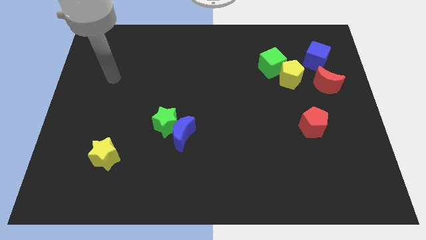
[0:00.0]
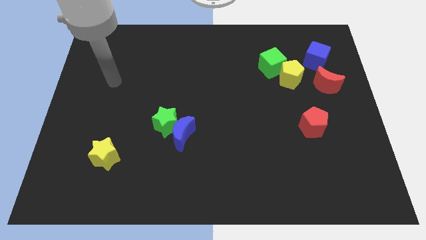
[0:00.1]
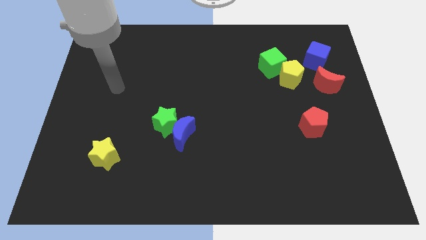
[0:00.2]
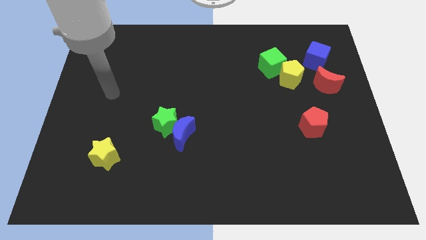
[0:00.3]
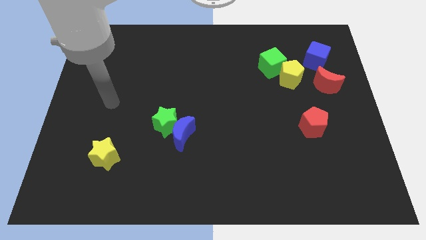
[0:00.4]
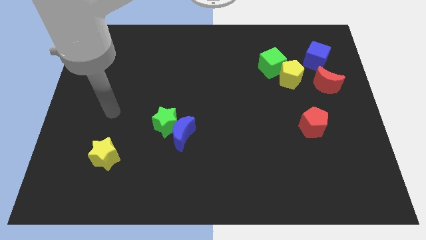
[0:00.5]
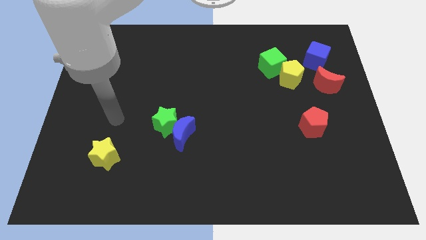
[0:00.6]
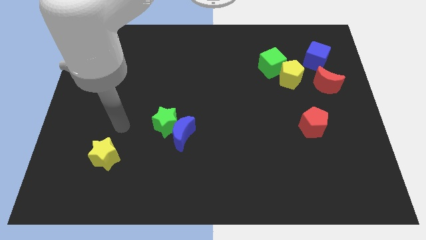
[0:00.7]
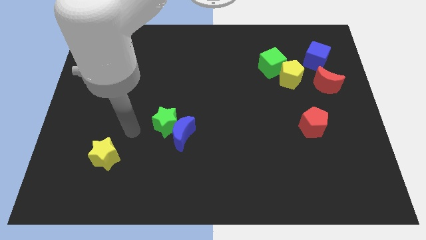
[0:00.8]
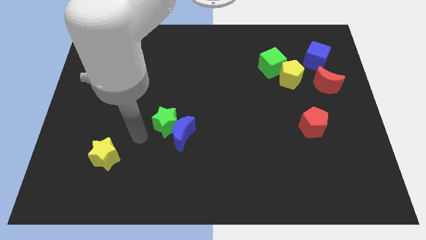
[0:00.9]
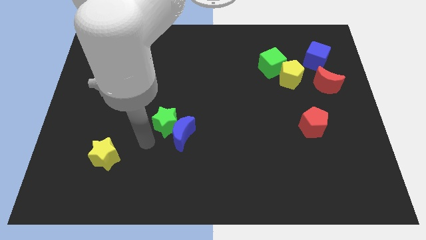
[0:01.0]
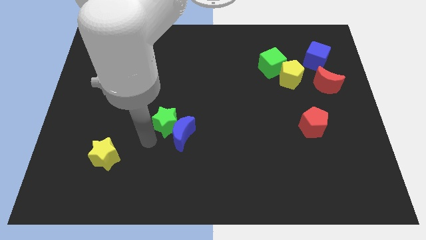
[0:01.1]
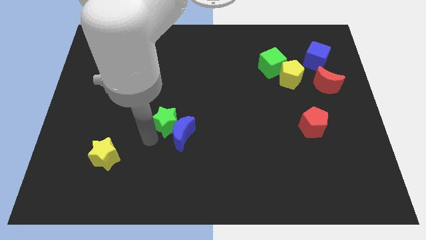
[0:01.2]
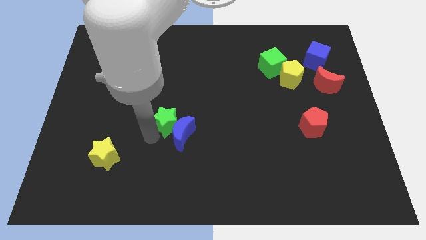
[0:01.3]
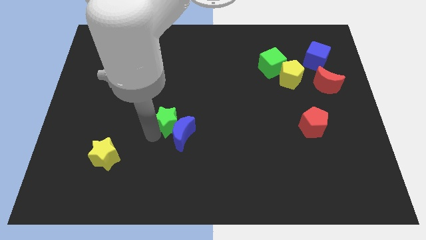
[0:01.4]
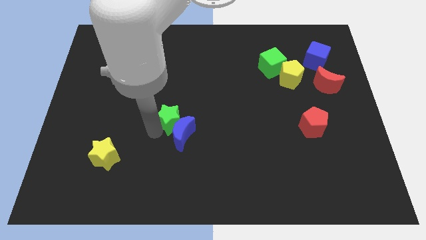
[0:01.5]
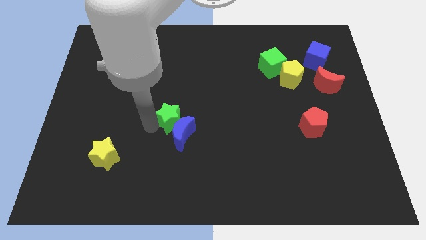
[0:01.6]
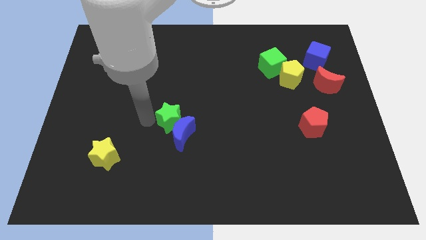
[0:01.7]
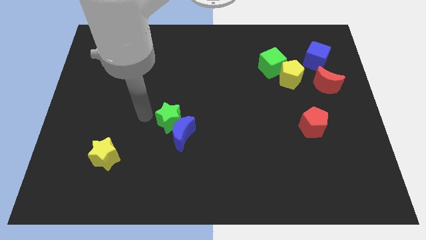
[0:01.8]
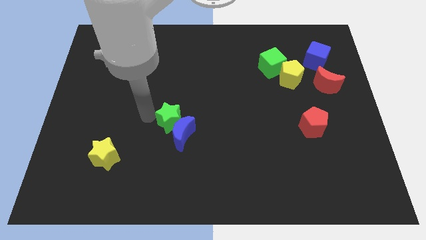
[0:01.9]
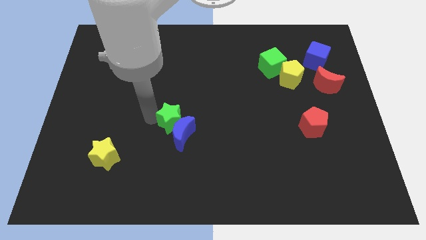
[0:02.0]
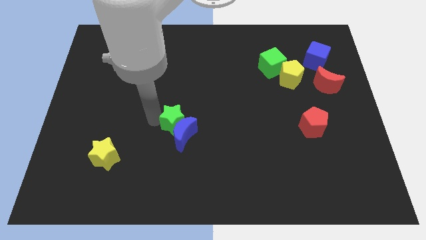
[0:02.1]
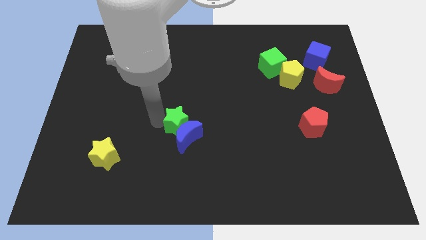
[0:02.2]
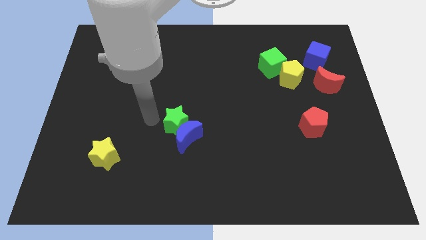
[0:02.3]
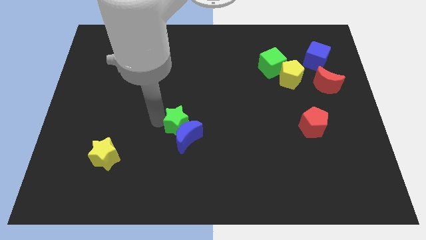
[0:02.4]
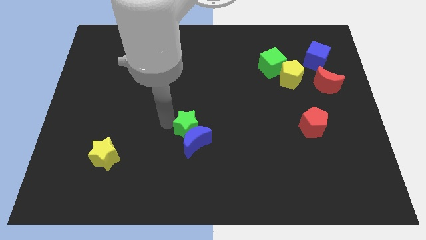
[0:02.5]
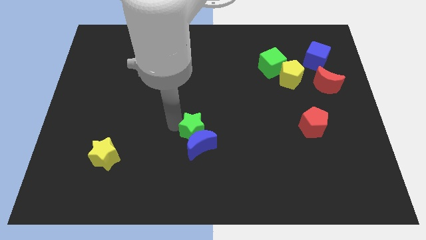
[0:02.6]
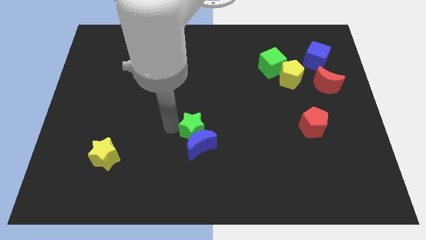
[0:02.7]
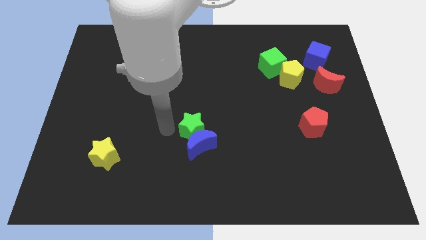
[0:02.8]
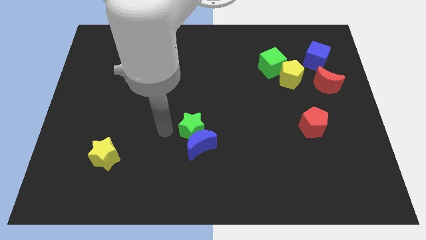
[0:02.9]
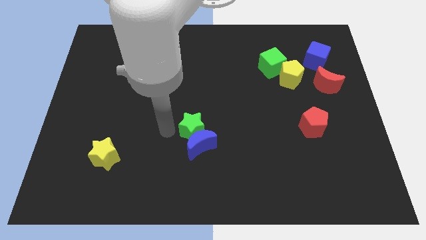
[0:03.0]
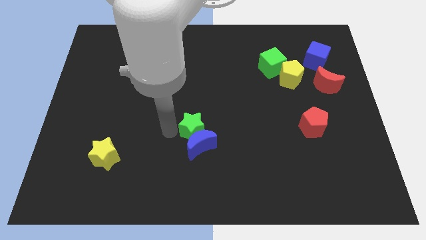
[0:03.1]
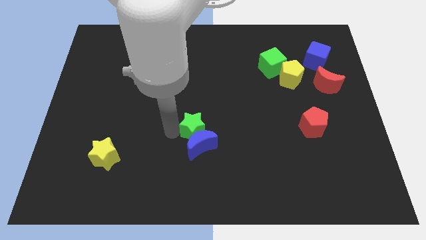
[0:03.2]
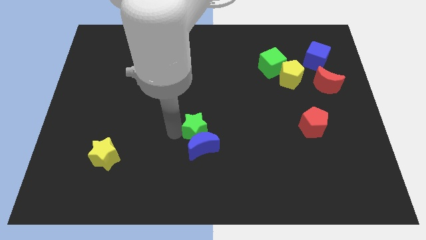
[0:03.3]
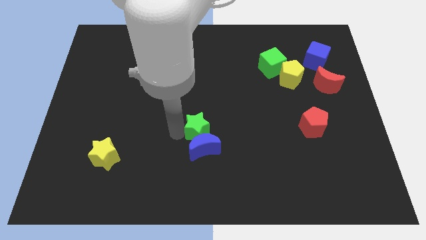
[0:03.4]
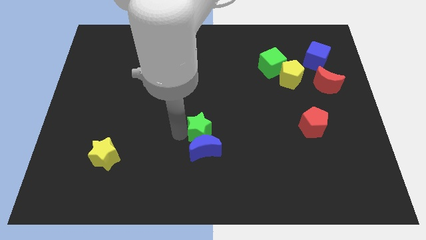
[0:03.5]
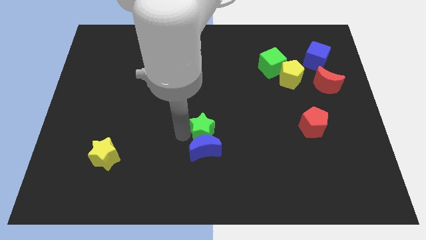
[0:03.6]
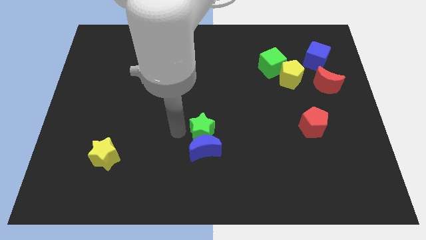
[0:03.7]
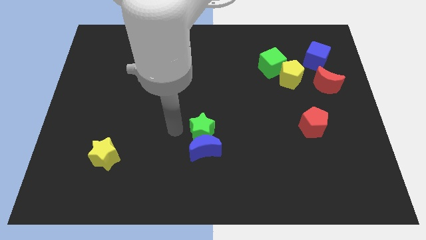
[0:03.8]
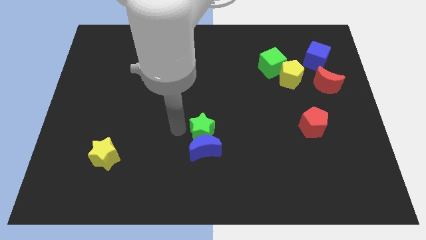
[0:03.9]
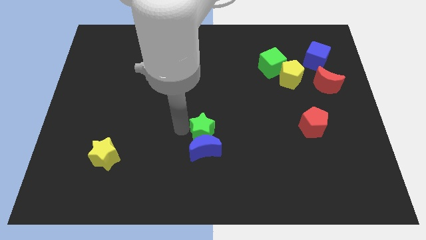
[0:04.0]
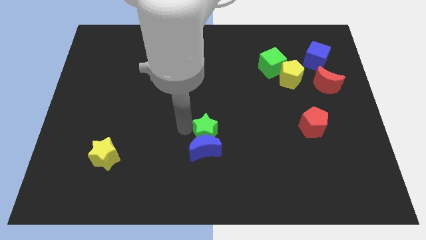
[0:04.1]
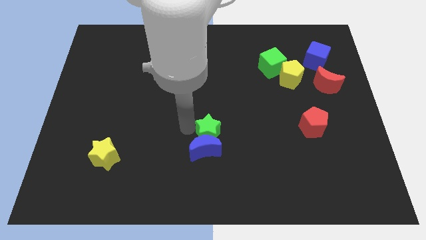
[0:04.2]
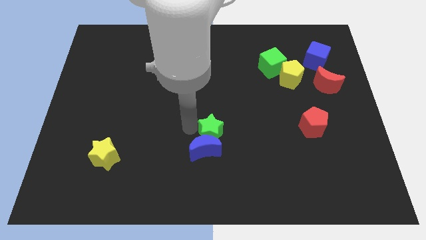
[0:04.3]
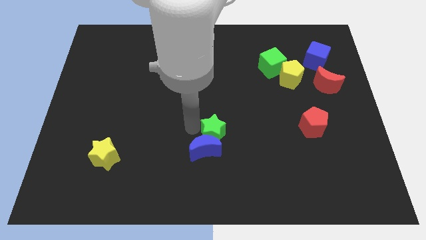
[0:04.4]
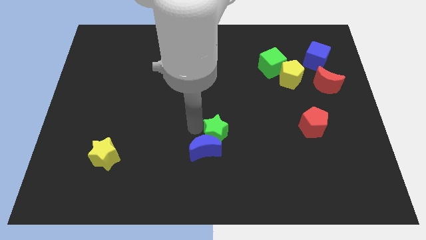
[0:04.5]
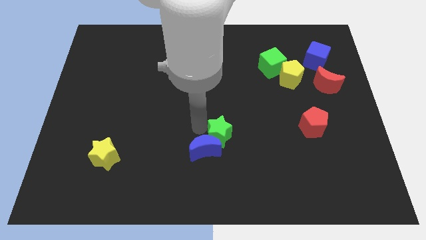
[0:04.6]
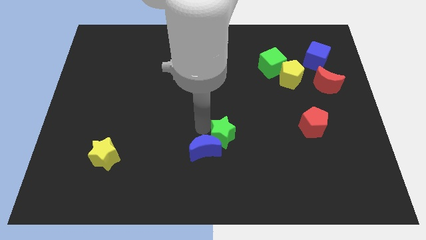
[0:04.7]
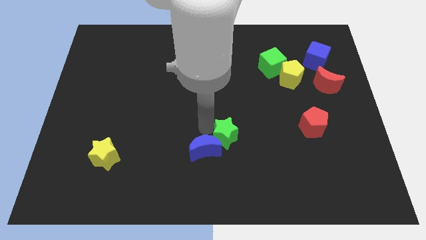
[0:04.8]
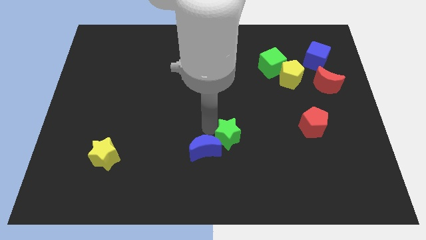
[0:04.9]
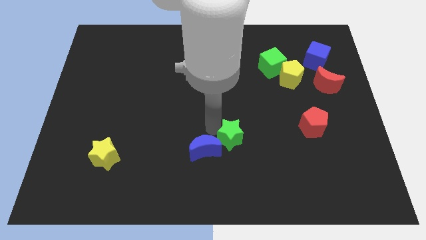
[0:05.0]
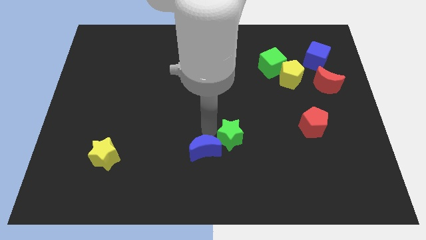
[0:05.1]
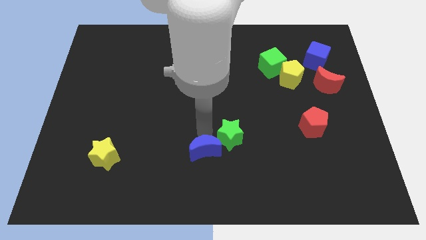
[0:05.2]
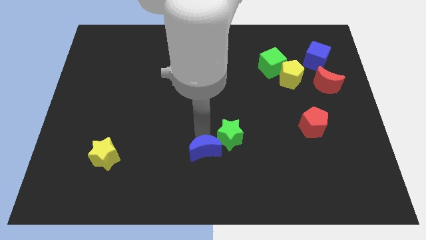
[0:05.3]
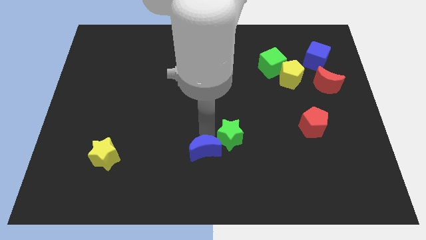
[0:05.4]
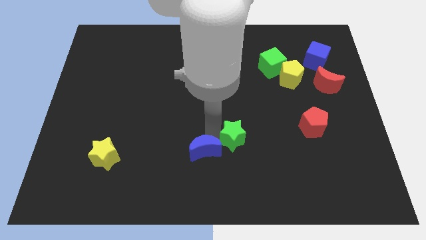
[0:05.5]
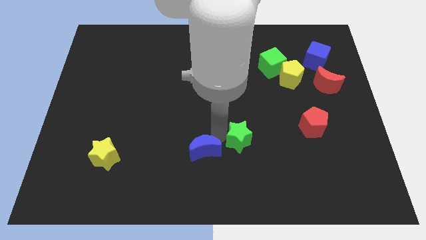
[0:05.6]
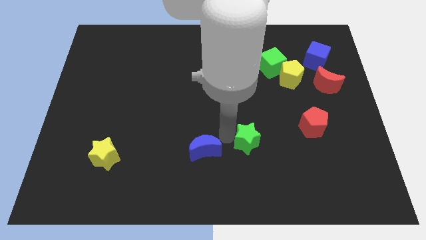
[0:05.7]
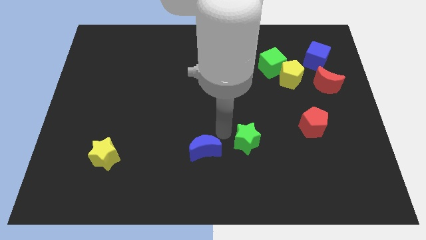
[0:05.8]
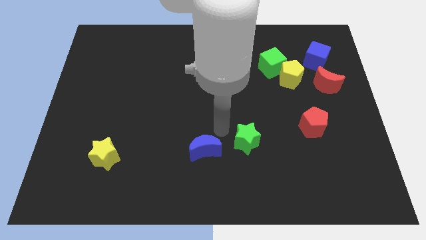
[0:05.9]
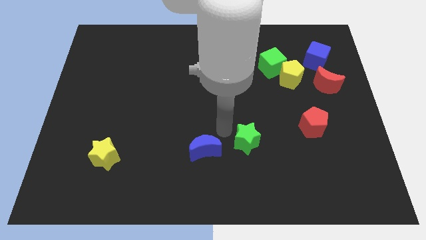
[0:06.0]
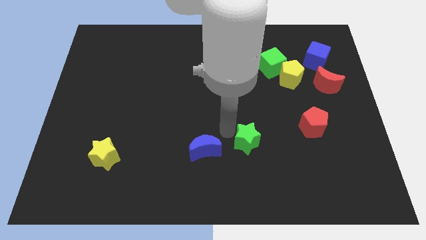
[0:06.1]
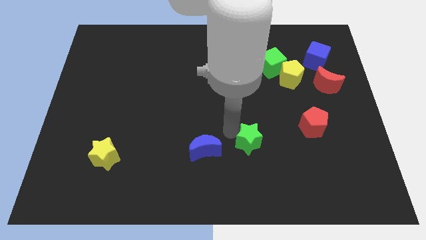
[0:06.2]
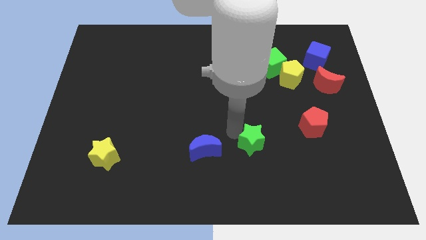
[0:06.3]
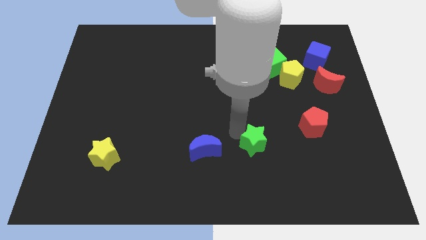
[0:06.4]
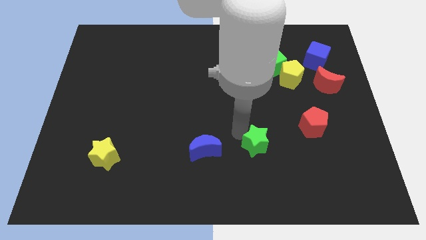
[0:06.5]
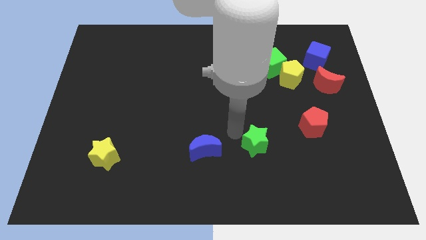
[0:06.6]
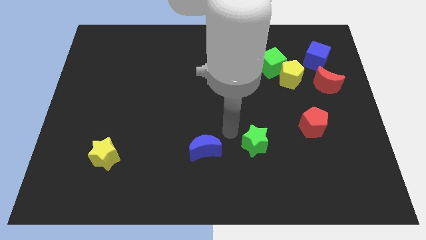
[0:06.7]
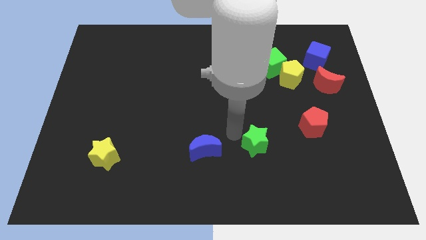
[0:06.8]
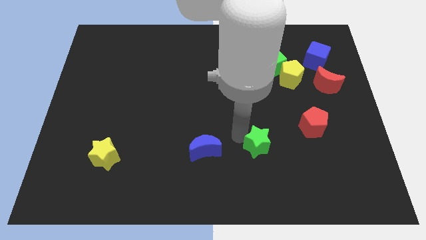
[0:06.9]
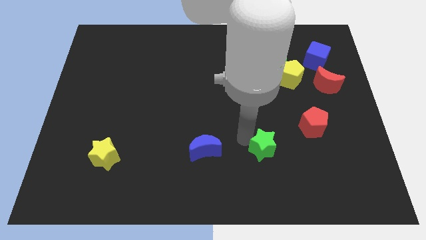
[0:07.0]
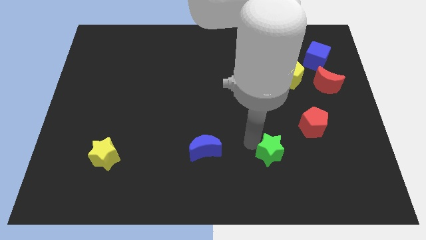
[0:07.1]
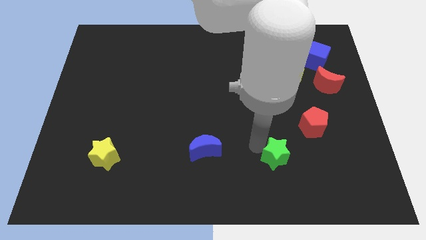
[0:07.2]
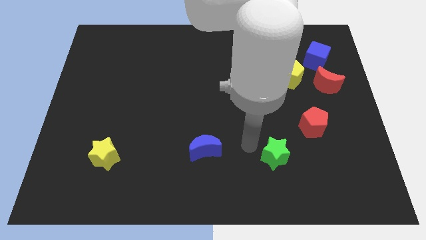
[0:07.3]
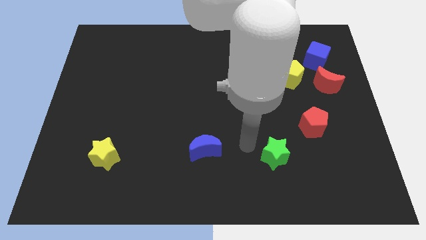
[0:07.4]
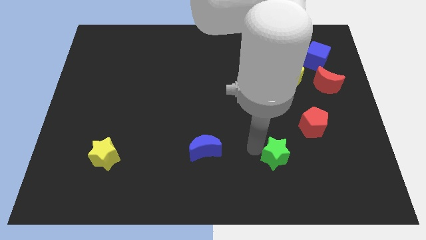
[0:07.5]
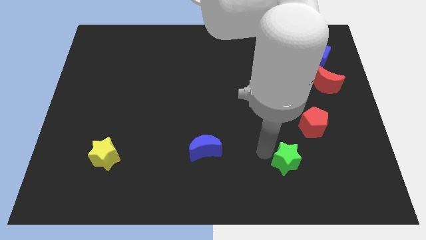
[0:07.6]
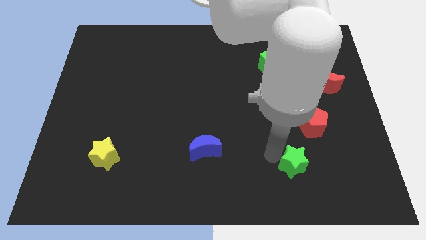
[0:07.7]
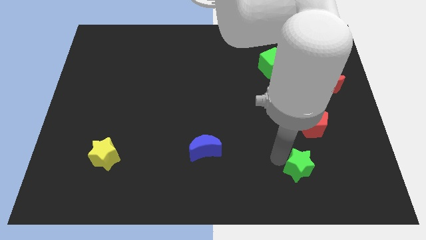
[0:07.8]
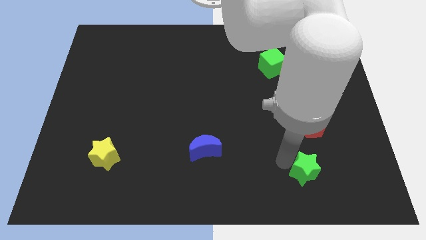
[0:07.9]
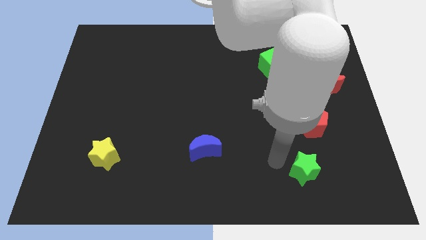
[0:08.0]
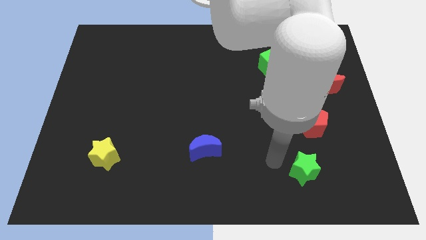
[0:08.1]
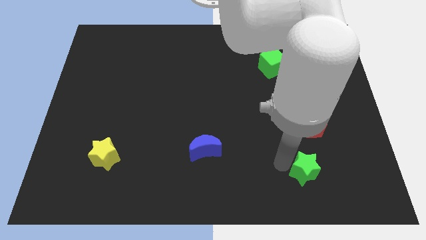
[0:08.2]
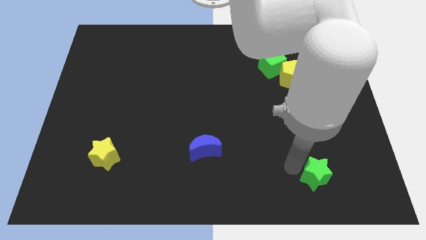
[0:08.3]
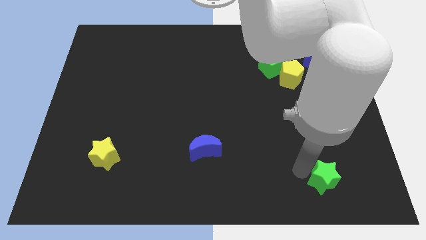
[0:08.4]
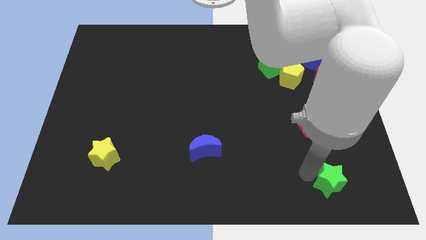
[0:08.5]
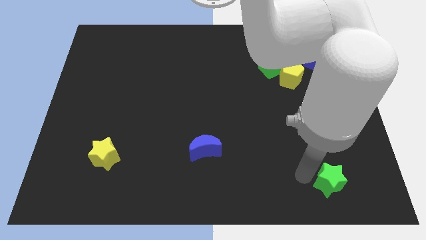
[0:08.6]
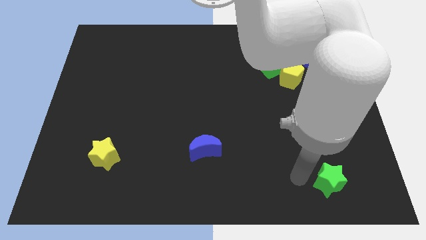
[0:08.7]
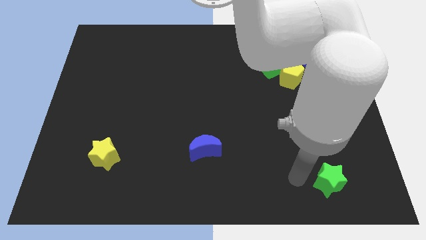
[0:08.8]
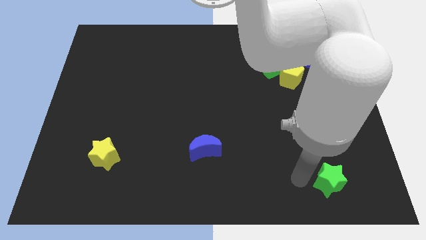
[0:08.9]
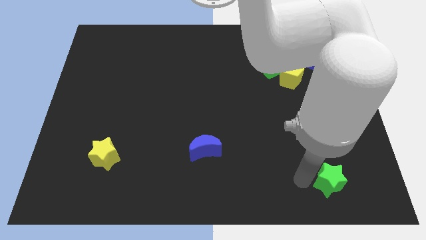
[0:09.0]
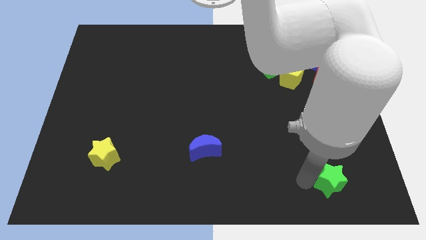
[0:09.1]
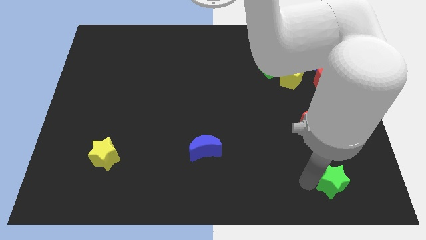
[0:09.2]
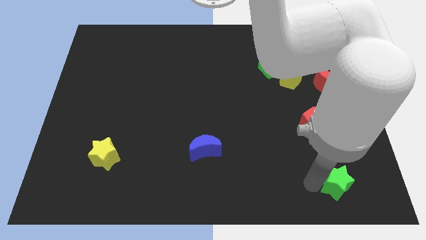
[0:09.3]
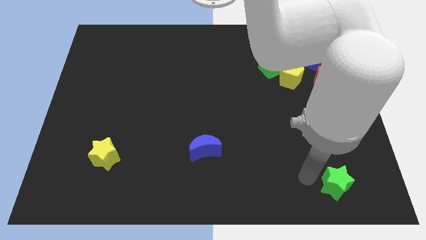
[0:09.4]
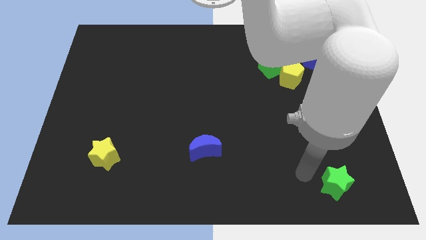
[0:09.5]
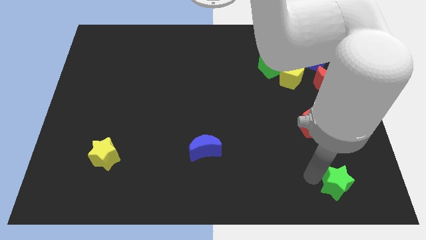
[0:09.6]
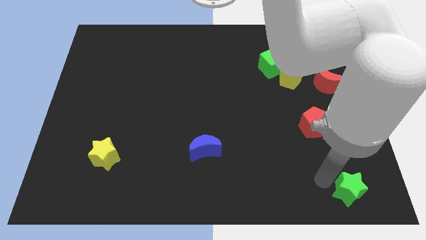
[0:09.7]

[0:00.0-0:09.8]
slide the green star to the bottom right corner
